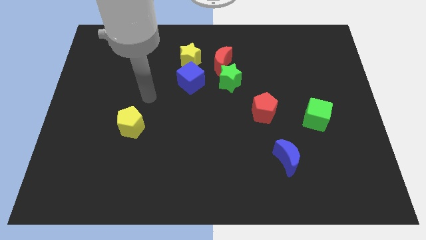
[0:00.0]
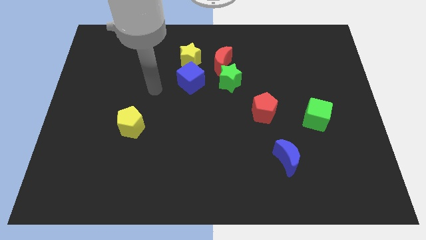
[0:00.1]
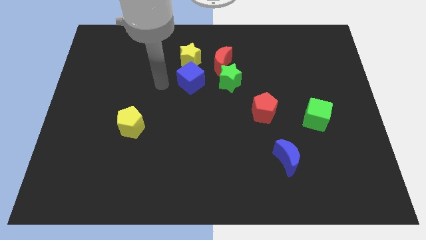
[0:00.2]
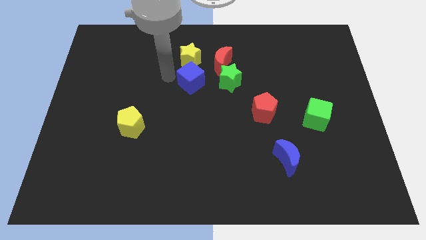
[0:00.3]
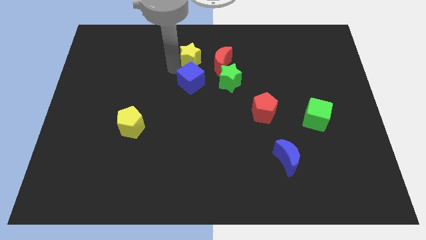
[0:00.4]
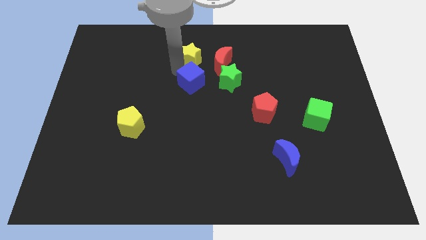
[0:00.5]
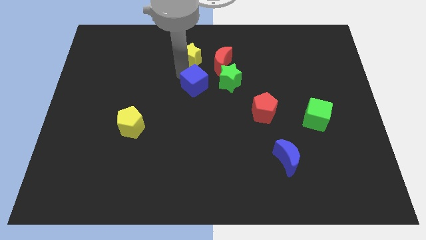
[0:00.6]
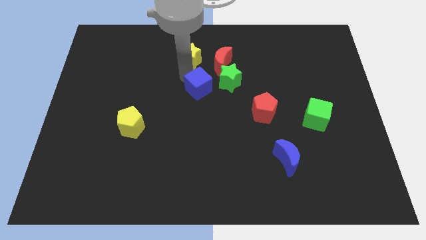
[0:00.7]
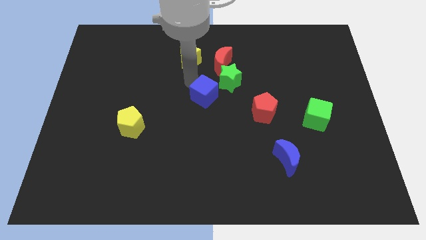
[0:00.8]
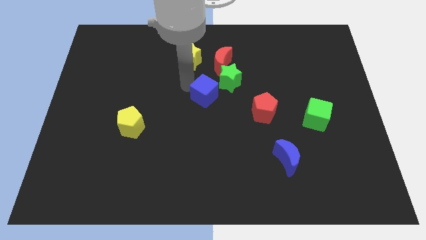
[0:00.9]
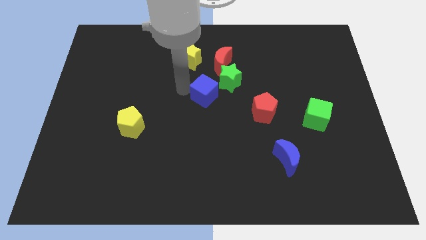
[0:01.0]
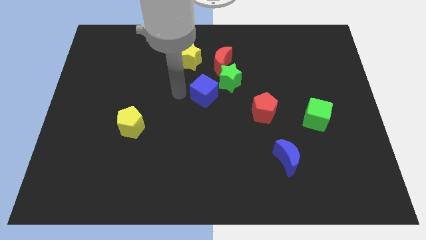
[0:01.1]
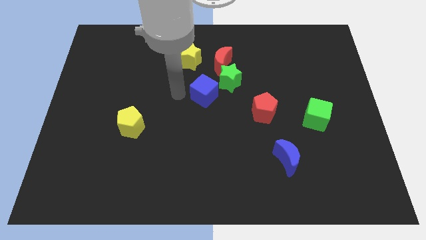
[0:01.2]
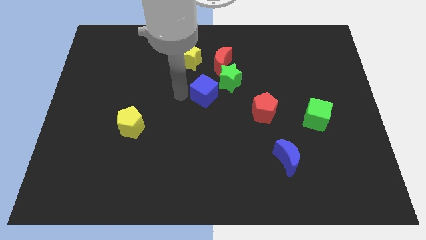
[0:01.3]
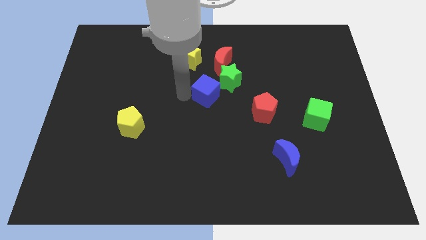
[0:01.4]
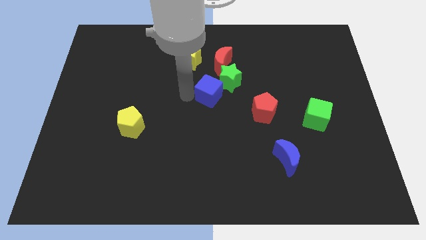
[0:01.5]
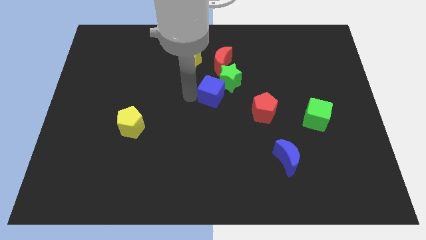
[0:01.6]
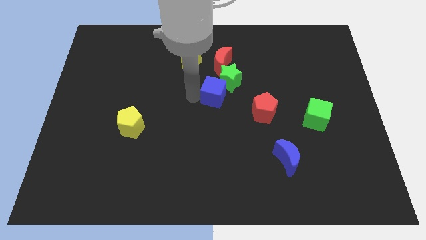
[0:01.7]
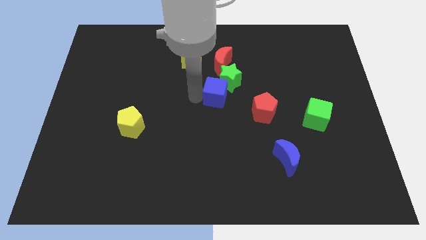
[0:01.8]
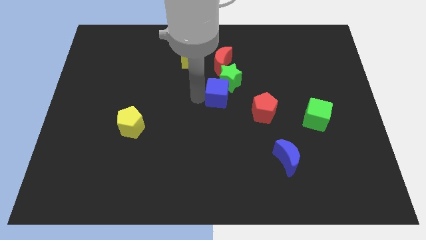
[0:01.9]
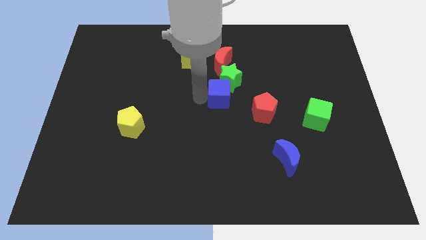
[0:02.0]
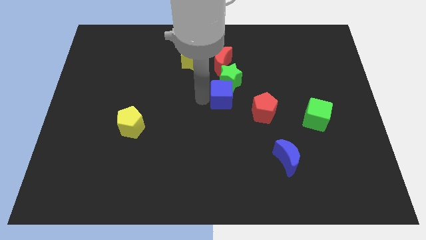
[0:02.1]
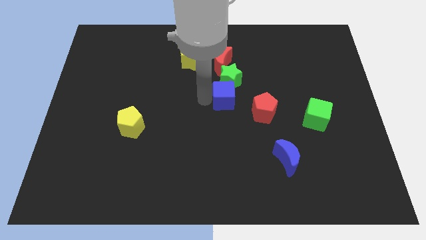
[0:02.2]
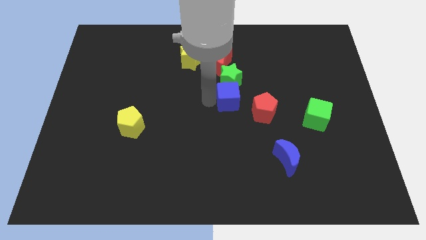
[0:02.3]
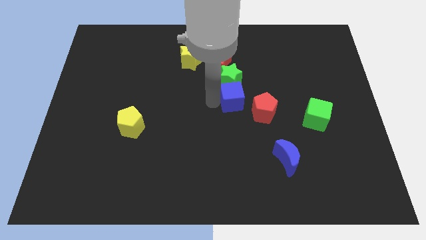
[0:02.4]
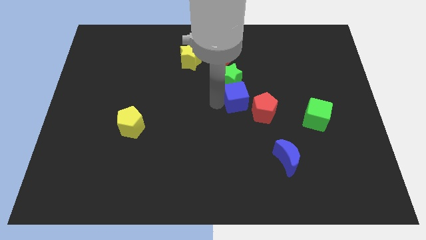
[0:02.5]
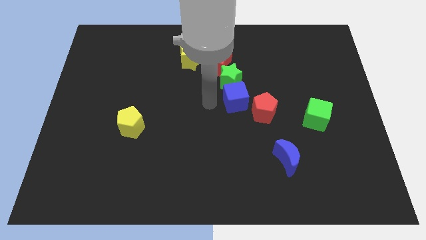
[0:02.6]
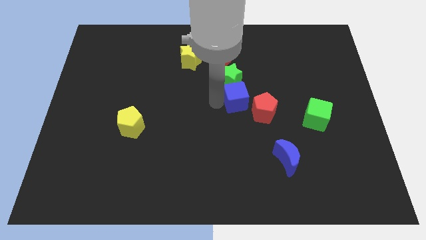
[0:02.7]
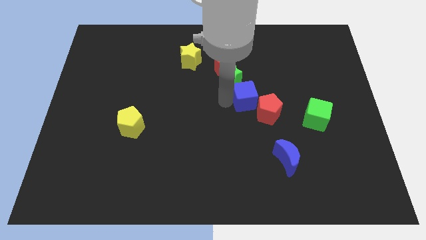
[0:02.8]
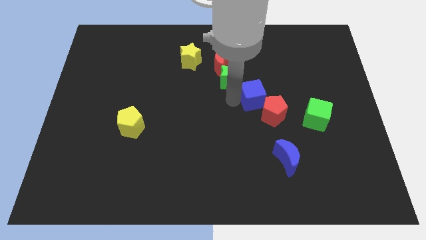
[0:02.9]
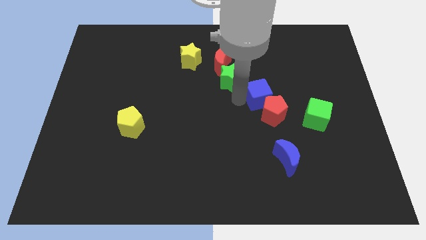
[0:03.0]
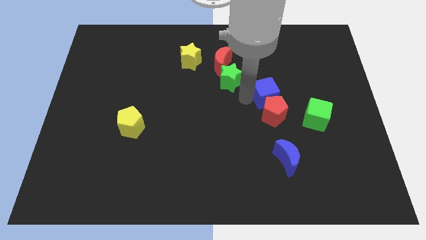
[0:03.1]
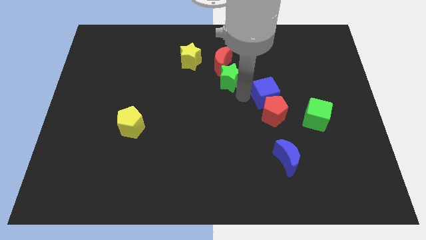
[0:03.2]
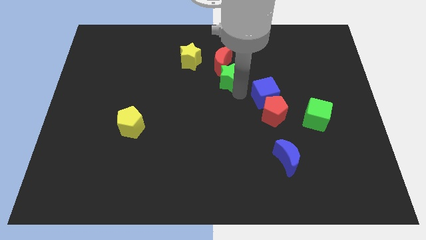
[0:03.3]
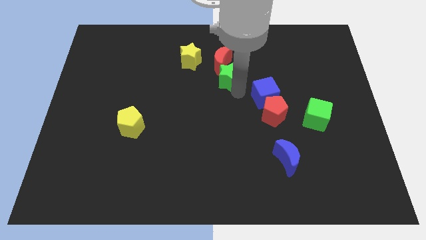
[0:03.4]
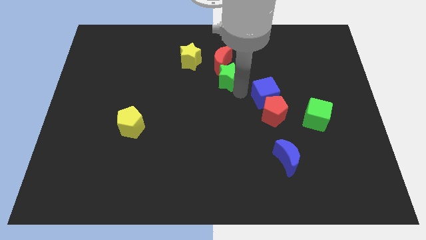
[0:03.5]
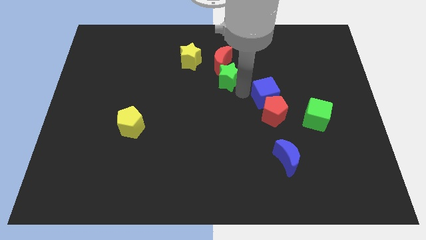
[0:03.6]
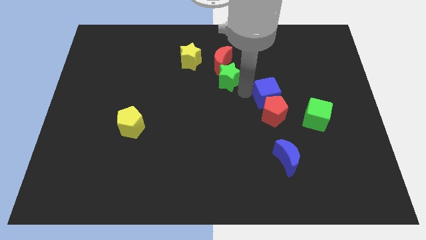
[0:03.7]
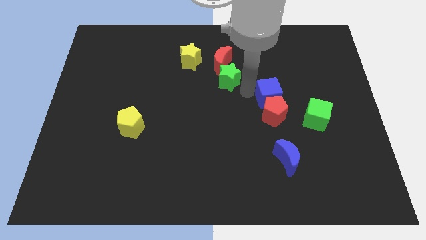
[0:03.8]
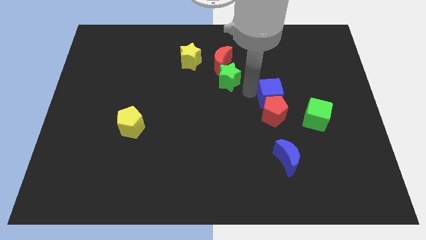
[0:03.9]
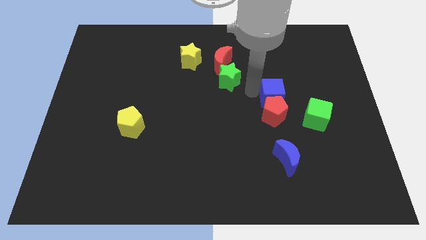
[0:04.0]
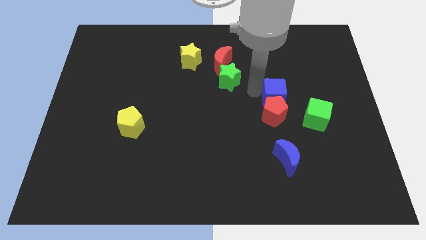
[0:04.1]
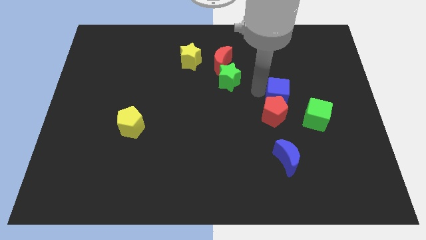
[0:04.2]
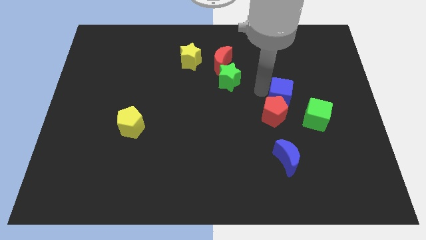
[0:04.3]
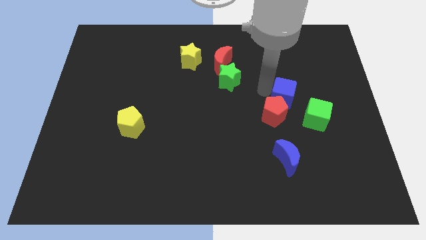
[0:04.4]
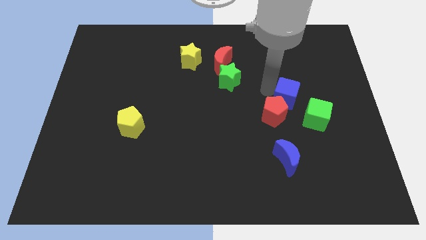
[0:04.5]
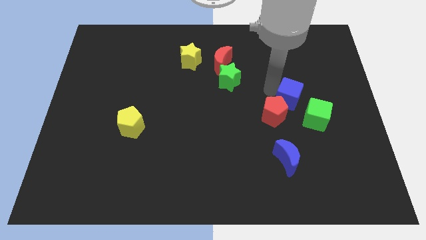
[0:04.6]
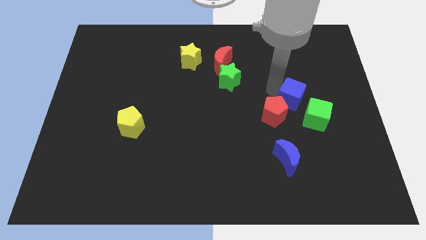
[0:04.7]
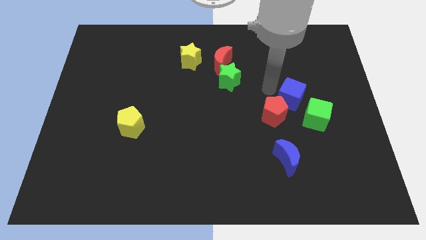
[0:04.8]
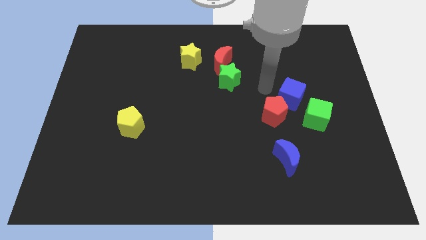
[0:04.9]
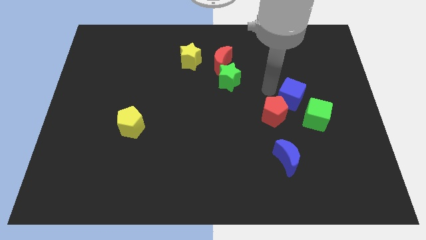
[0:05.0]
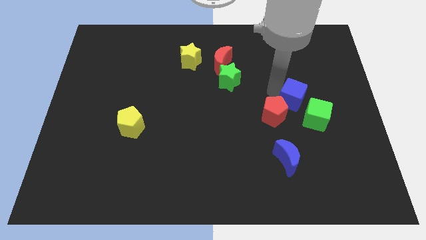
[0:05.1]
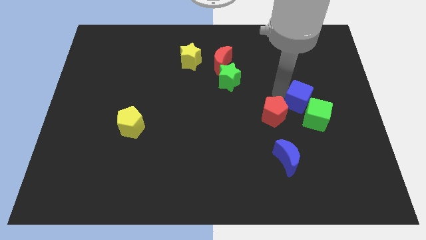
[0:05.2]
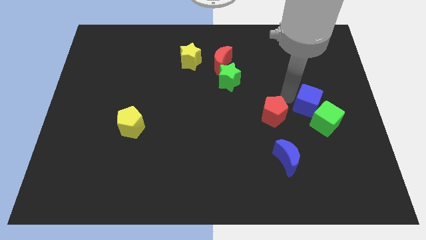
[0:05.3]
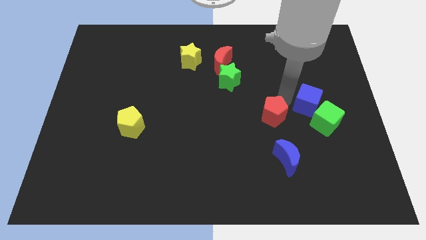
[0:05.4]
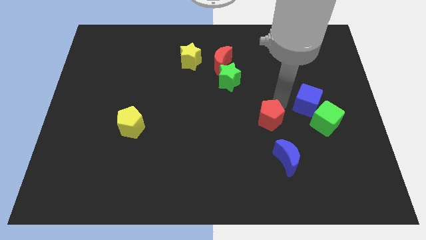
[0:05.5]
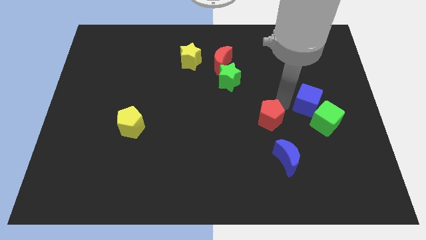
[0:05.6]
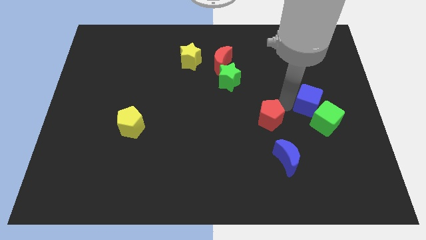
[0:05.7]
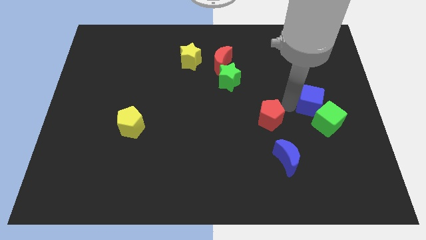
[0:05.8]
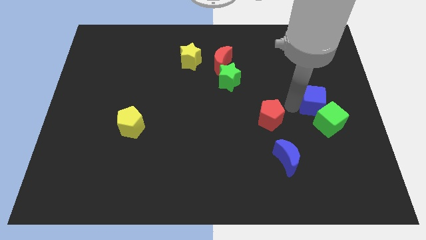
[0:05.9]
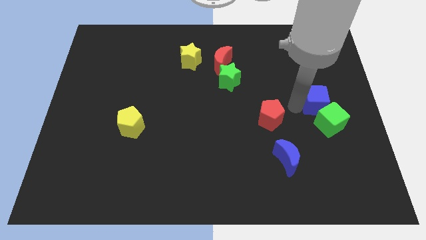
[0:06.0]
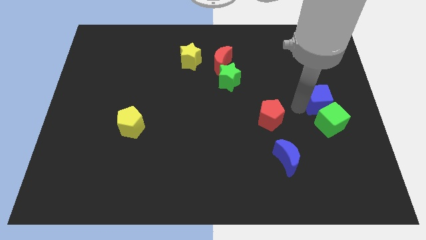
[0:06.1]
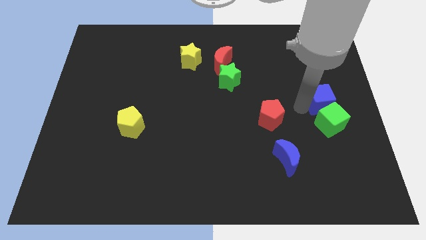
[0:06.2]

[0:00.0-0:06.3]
put the blue cube to the right side of the board

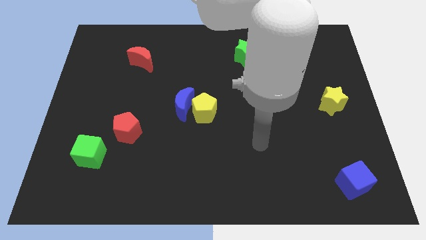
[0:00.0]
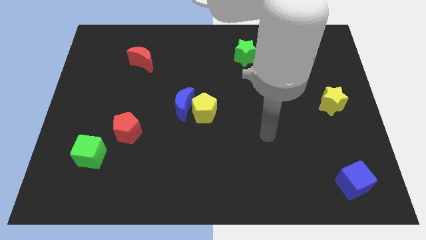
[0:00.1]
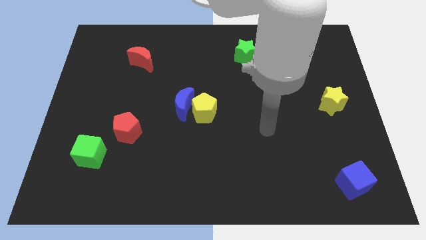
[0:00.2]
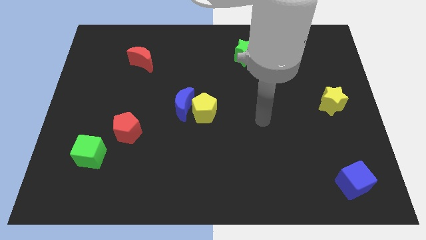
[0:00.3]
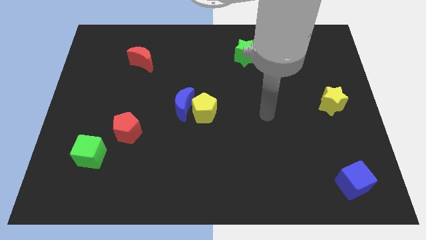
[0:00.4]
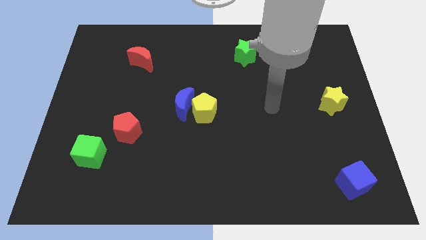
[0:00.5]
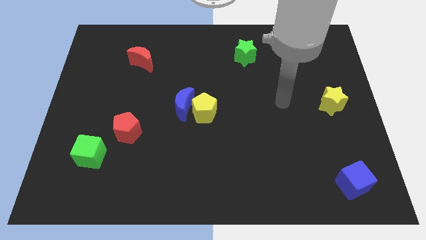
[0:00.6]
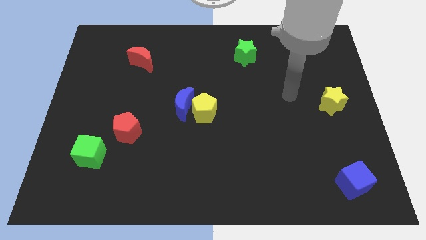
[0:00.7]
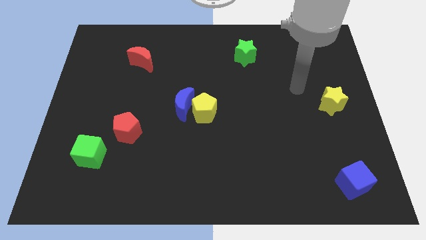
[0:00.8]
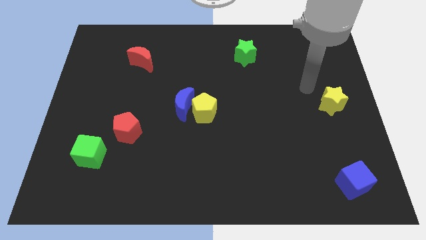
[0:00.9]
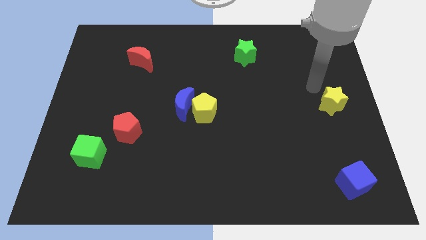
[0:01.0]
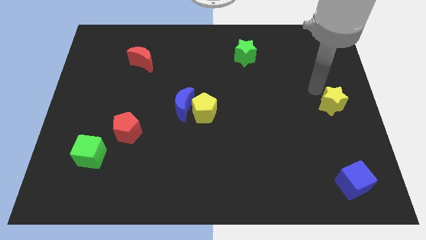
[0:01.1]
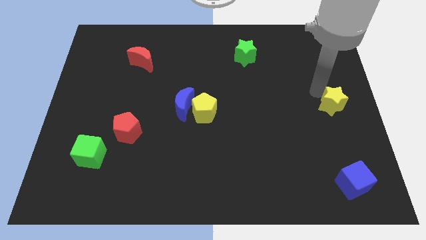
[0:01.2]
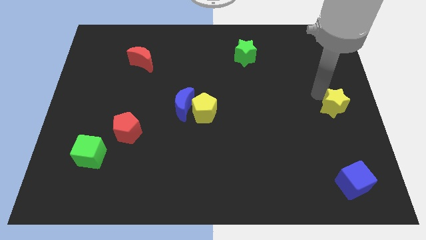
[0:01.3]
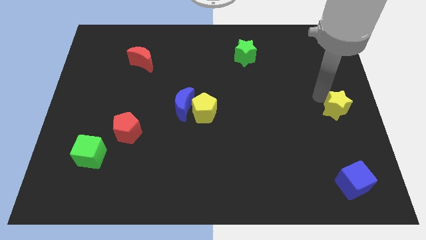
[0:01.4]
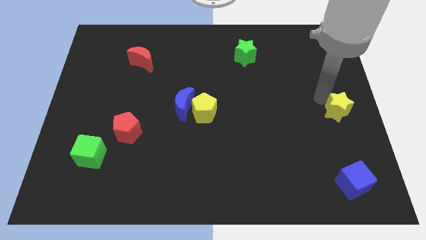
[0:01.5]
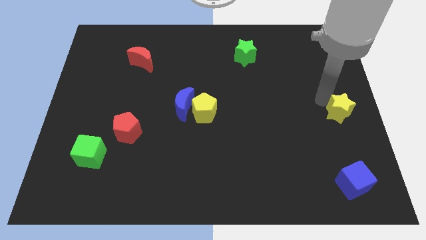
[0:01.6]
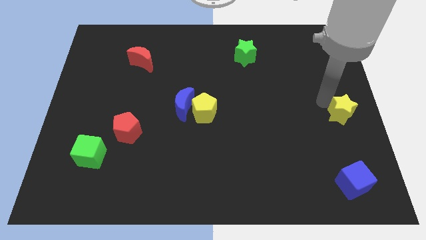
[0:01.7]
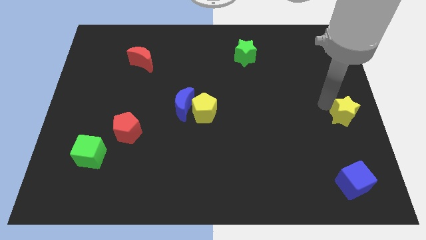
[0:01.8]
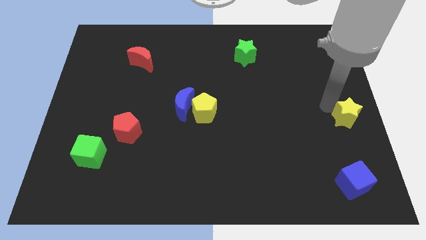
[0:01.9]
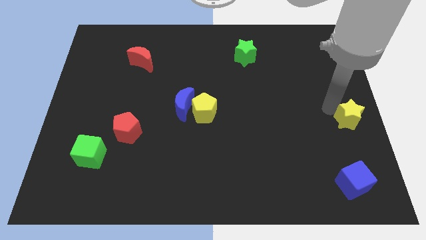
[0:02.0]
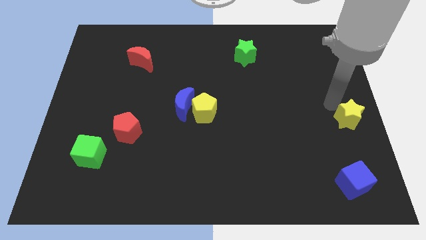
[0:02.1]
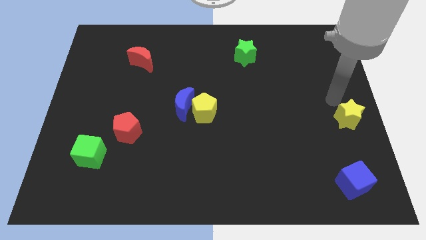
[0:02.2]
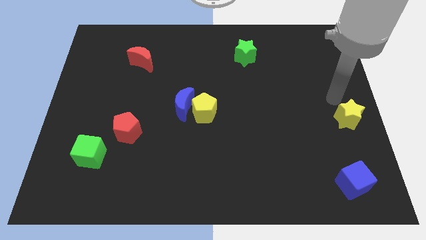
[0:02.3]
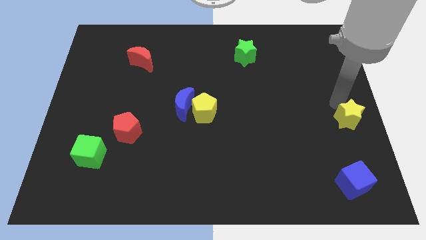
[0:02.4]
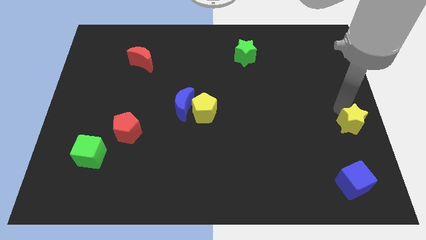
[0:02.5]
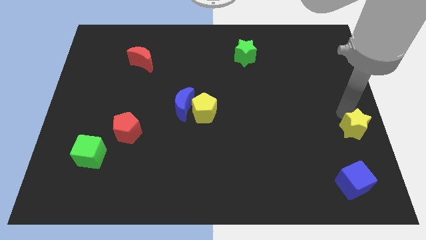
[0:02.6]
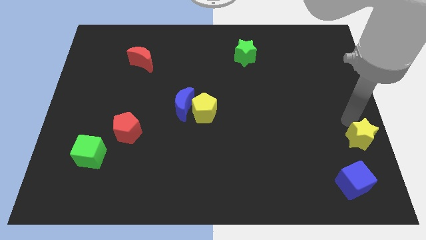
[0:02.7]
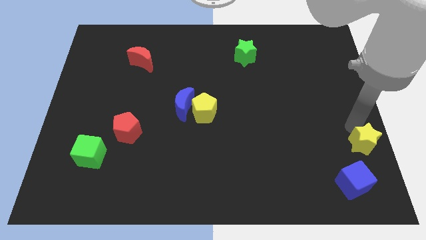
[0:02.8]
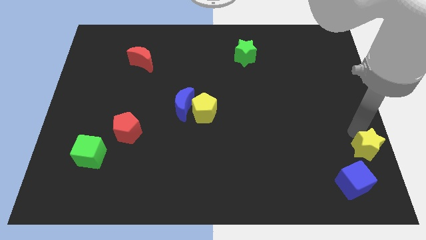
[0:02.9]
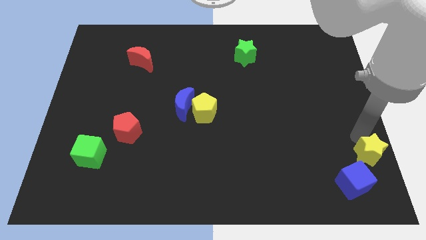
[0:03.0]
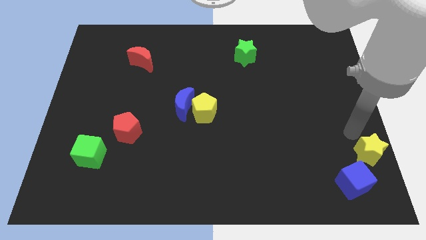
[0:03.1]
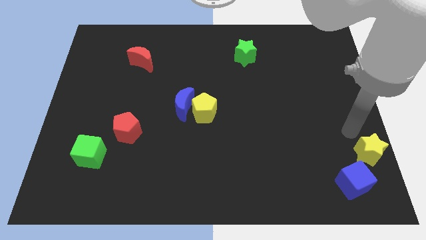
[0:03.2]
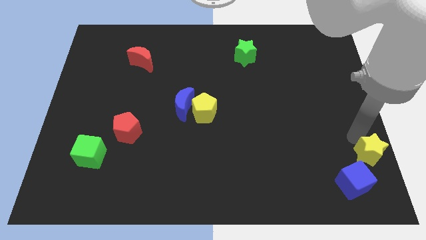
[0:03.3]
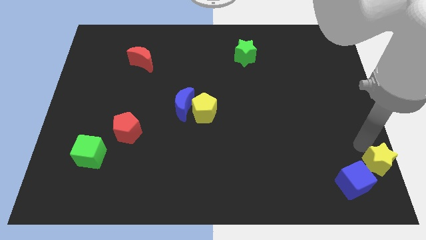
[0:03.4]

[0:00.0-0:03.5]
put the yellow star to the bottom right
